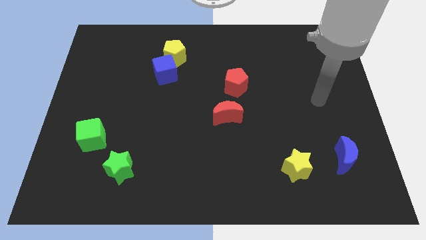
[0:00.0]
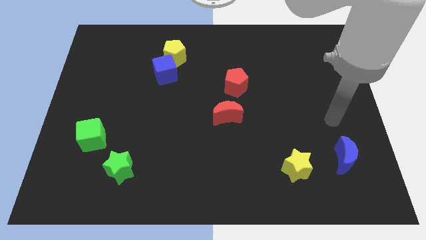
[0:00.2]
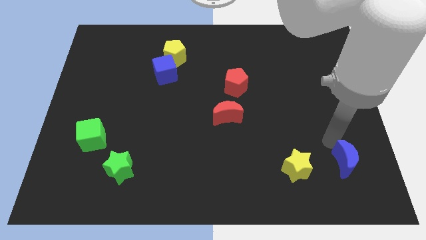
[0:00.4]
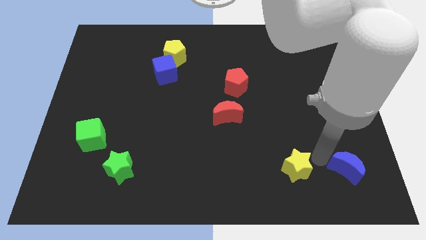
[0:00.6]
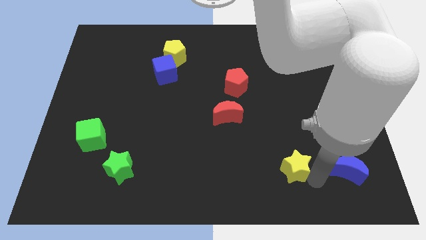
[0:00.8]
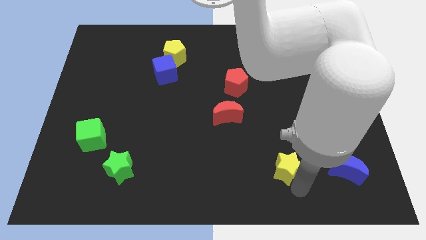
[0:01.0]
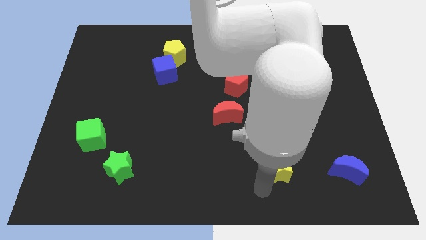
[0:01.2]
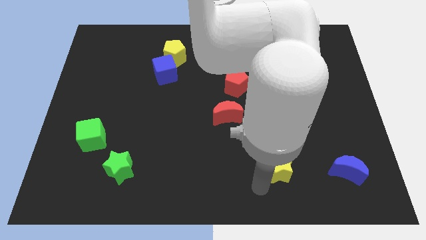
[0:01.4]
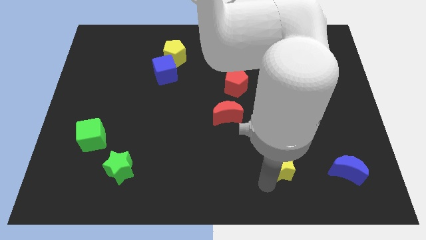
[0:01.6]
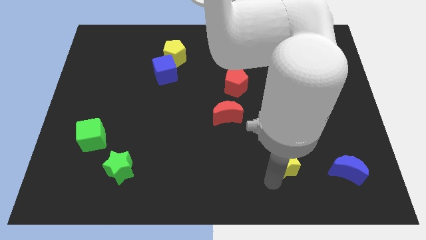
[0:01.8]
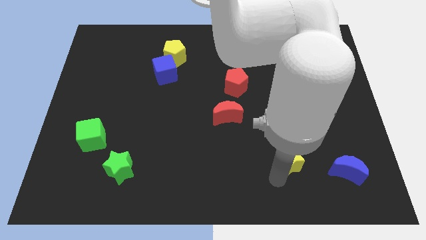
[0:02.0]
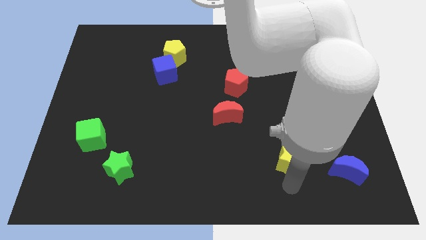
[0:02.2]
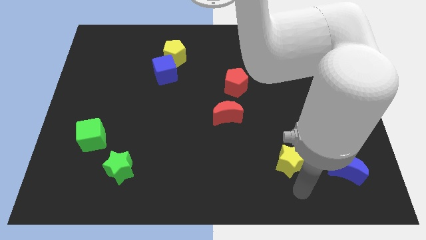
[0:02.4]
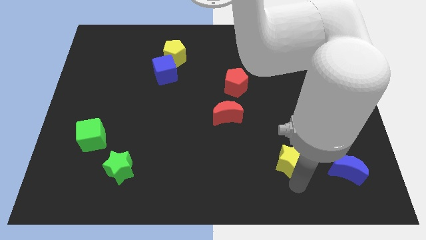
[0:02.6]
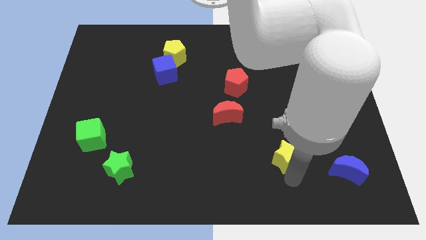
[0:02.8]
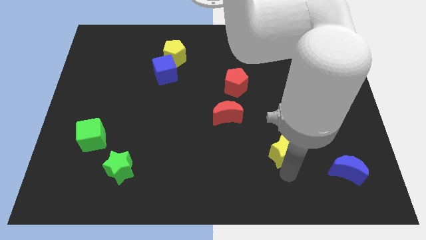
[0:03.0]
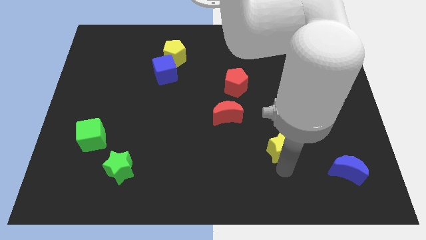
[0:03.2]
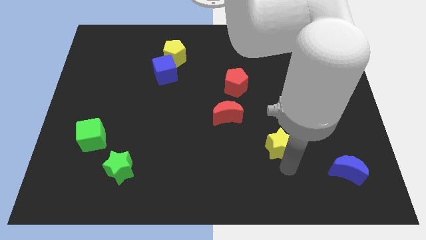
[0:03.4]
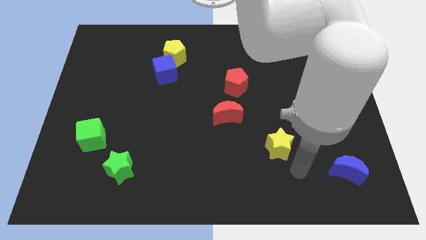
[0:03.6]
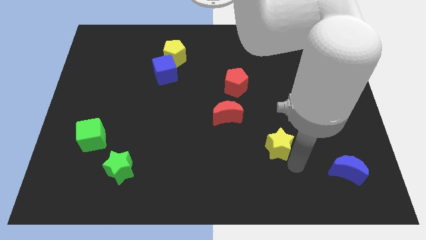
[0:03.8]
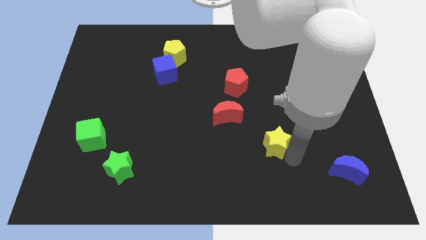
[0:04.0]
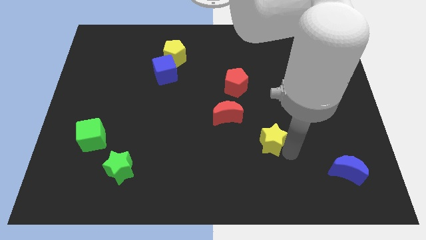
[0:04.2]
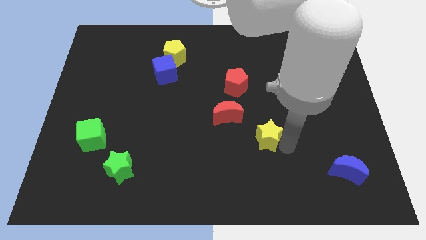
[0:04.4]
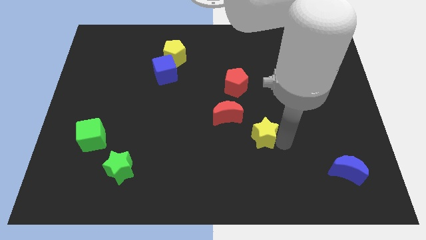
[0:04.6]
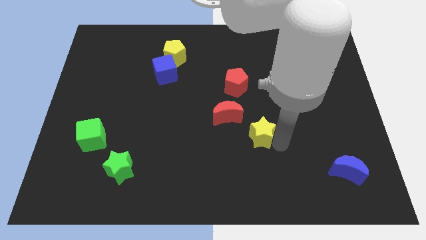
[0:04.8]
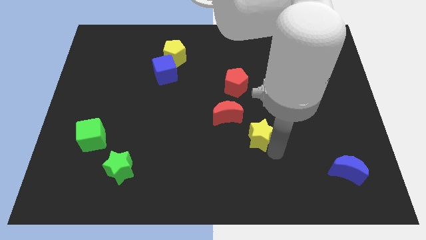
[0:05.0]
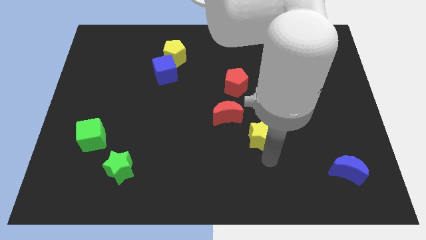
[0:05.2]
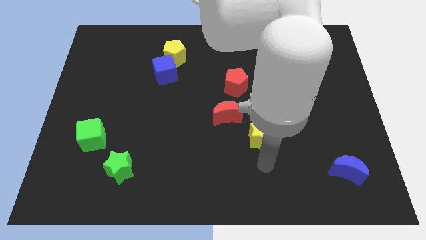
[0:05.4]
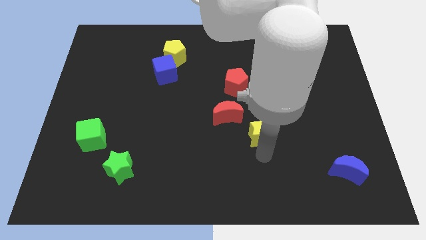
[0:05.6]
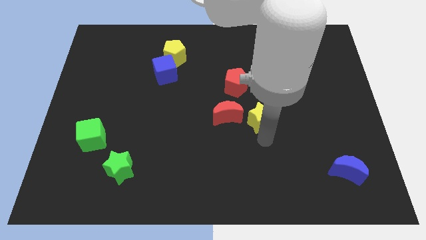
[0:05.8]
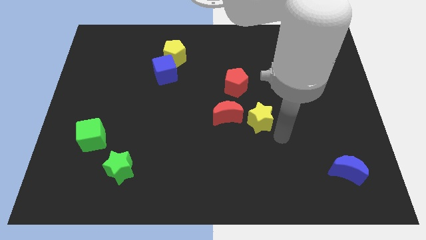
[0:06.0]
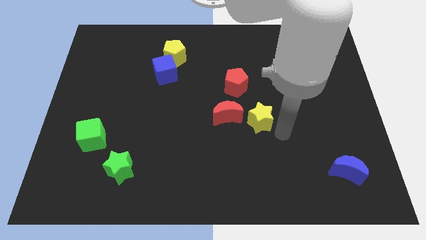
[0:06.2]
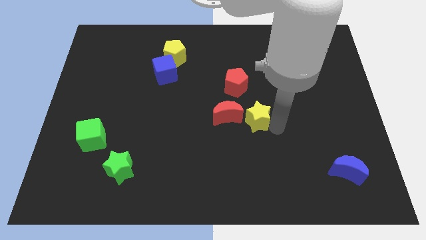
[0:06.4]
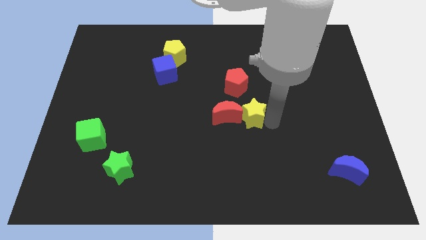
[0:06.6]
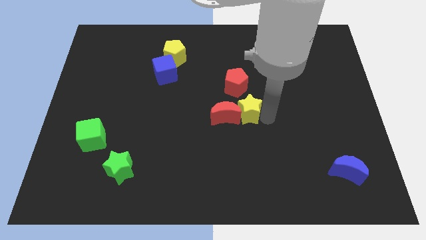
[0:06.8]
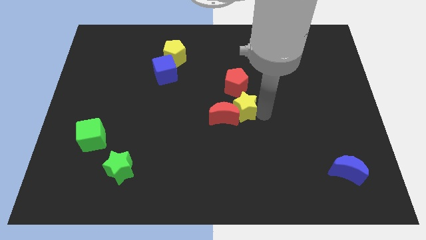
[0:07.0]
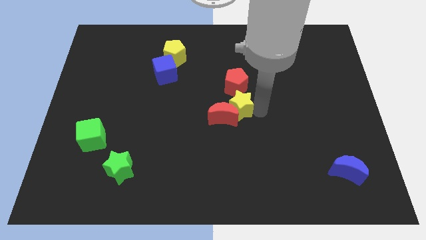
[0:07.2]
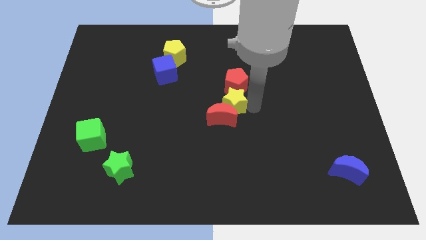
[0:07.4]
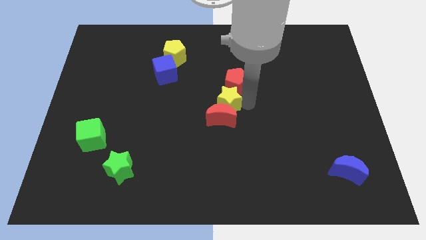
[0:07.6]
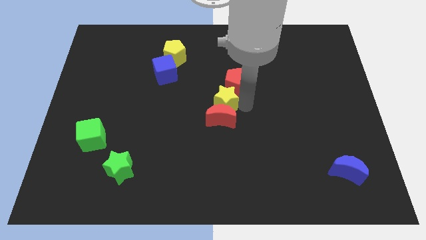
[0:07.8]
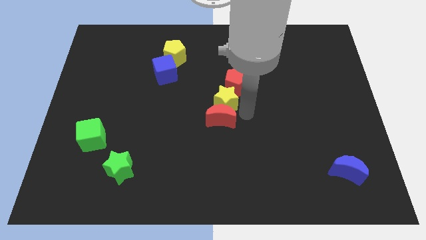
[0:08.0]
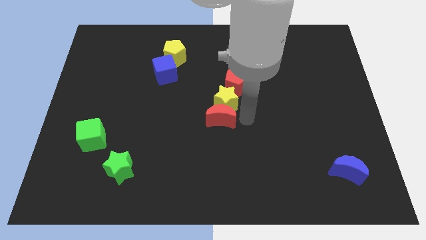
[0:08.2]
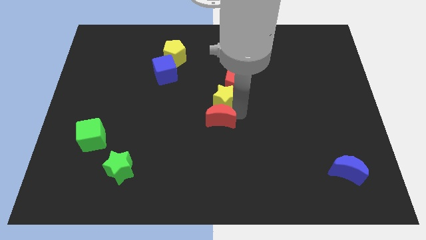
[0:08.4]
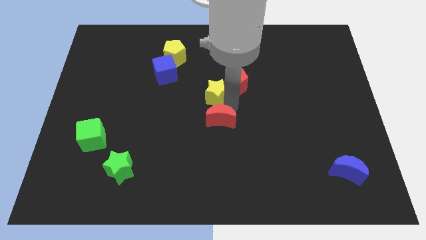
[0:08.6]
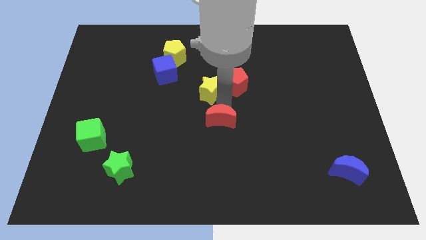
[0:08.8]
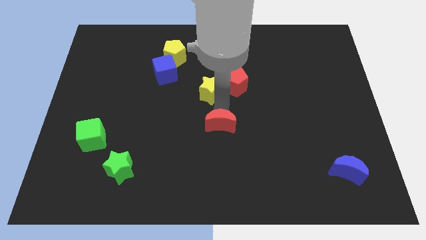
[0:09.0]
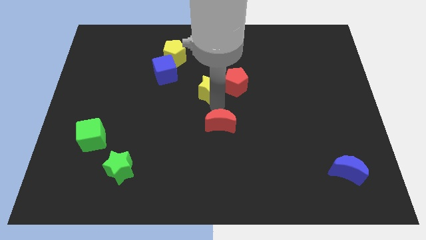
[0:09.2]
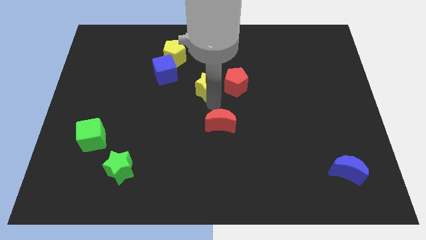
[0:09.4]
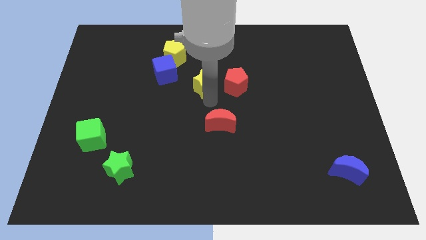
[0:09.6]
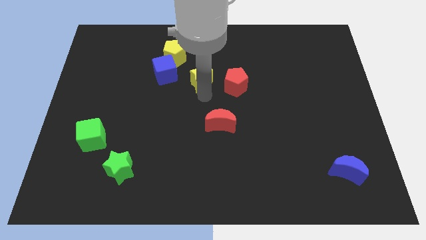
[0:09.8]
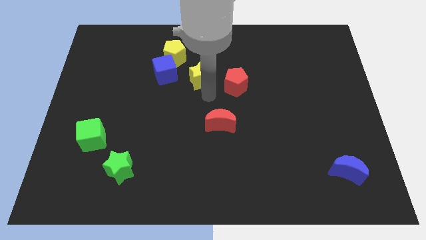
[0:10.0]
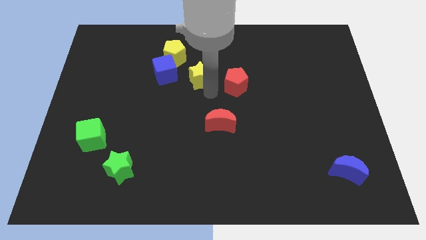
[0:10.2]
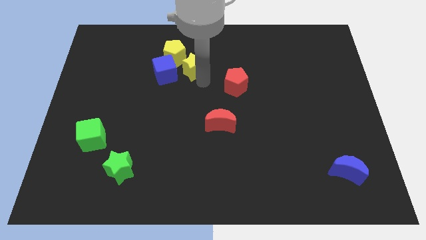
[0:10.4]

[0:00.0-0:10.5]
put the yellow star to the top right side of the blue cube

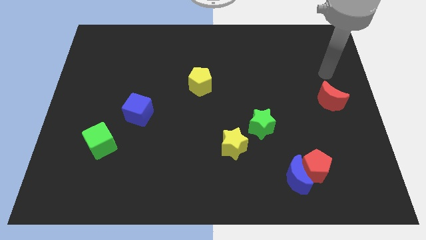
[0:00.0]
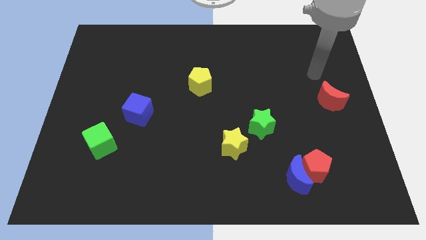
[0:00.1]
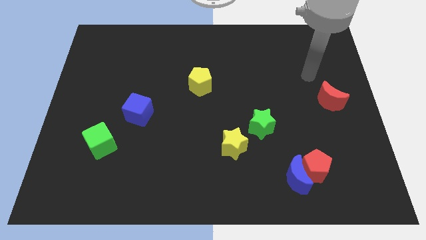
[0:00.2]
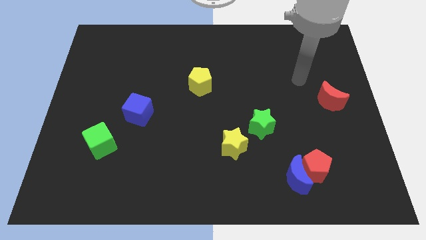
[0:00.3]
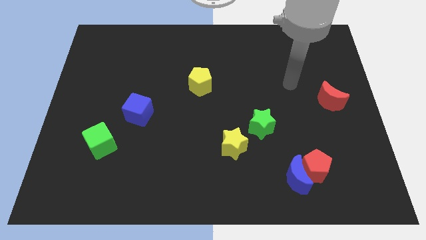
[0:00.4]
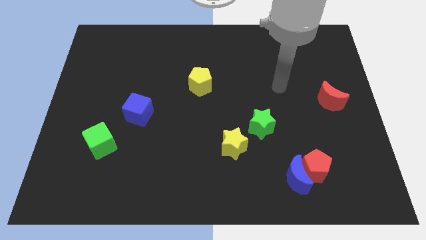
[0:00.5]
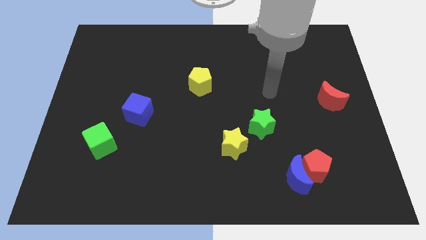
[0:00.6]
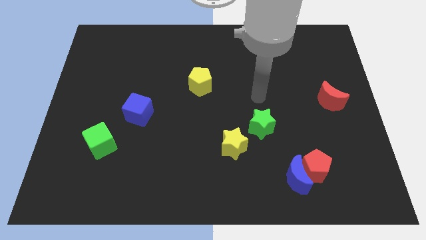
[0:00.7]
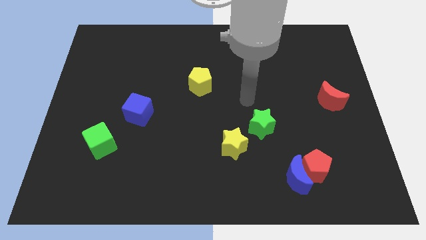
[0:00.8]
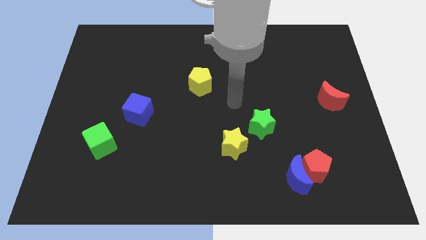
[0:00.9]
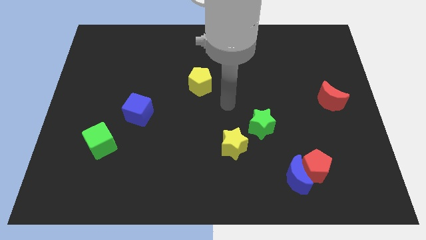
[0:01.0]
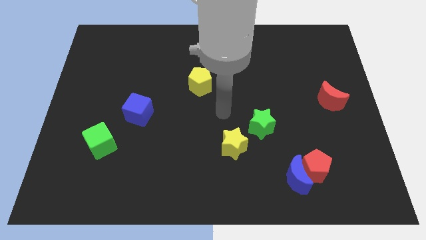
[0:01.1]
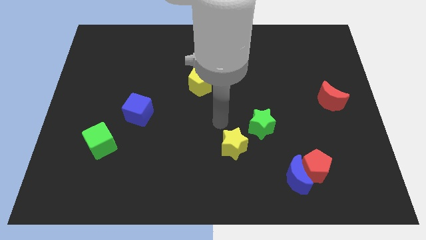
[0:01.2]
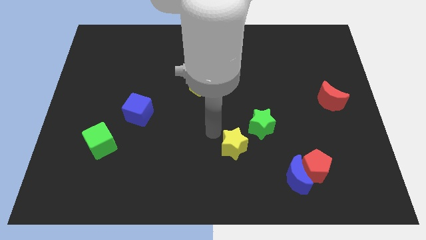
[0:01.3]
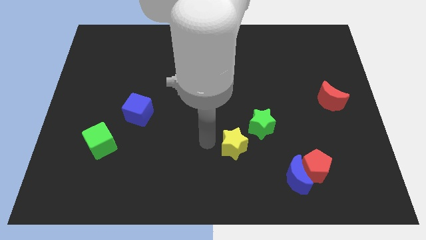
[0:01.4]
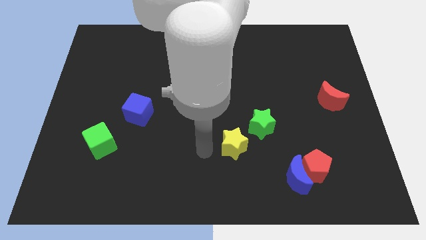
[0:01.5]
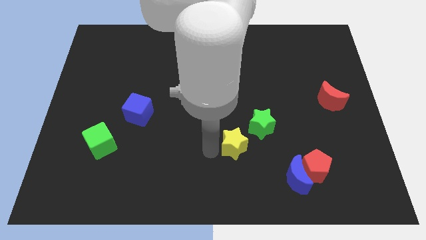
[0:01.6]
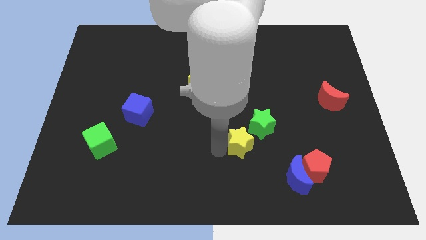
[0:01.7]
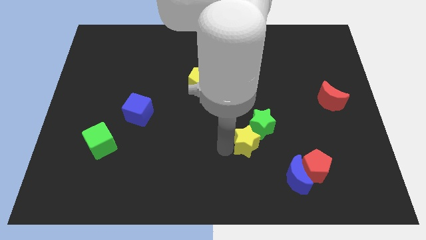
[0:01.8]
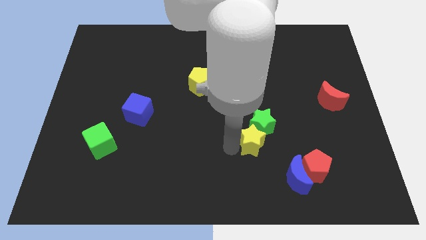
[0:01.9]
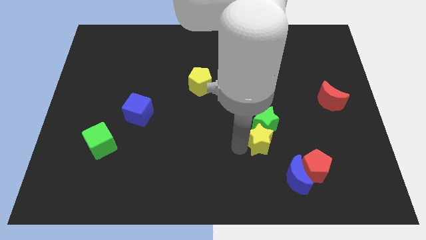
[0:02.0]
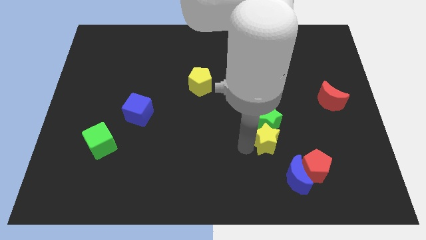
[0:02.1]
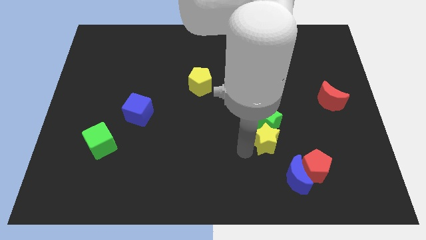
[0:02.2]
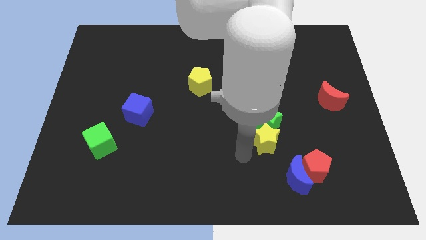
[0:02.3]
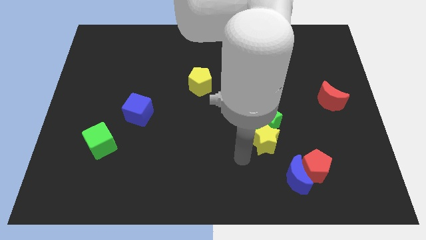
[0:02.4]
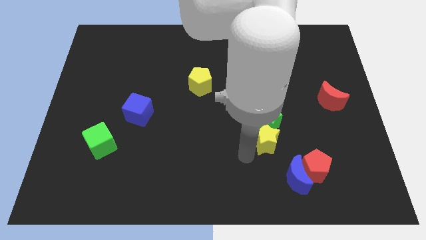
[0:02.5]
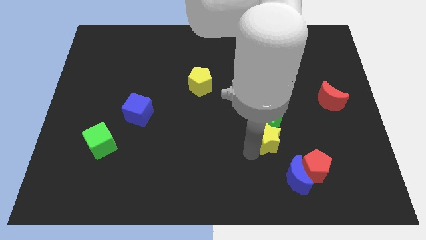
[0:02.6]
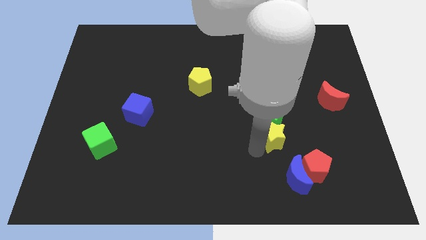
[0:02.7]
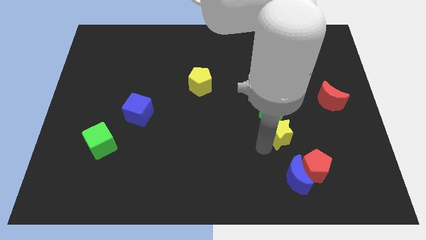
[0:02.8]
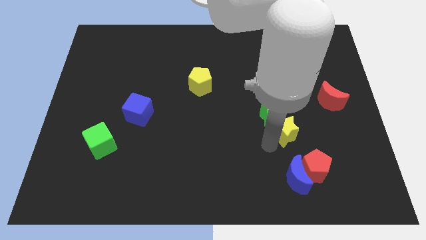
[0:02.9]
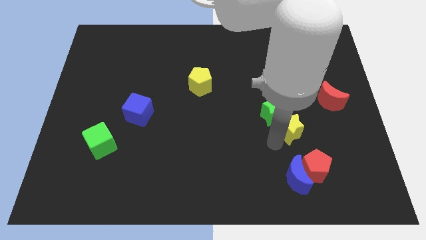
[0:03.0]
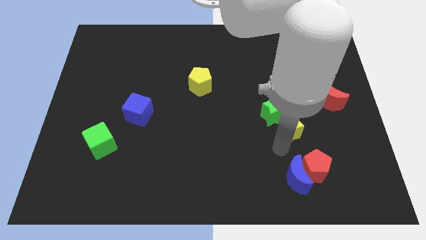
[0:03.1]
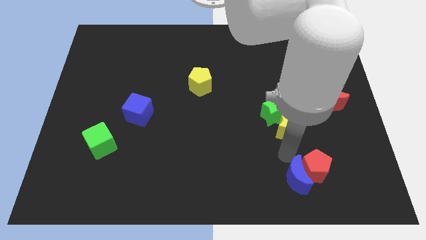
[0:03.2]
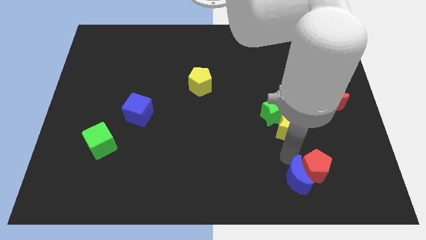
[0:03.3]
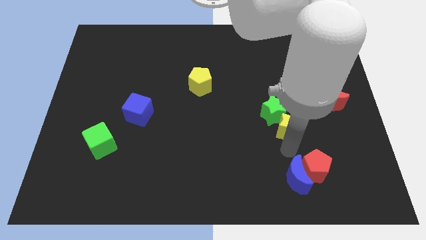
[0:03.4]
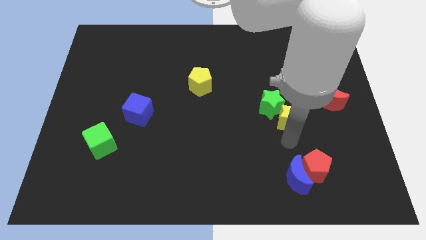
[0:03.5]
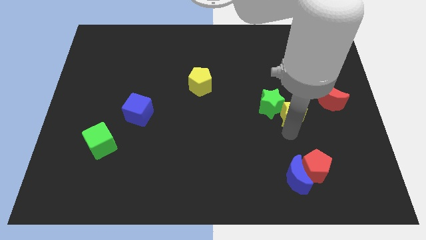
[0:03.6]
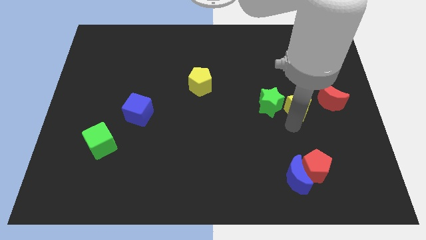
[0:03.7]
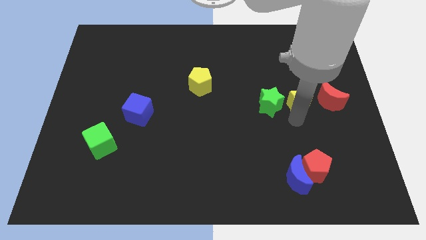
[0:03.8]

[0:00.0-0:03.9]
move the yellow star diagonally up and to the right of the green star
